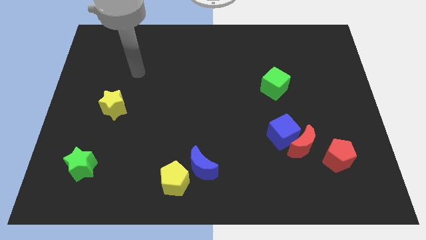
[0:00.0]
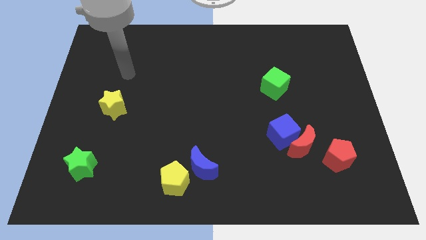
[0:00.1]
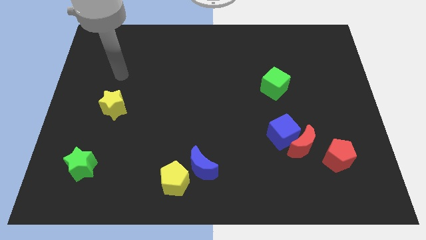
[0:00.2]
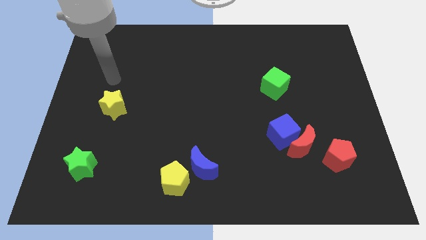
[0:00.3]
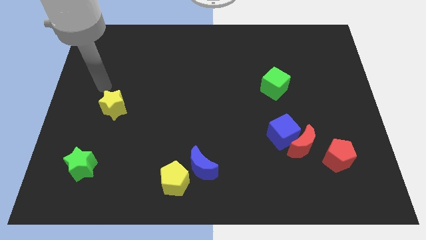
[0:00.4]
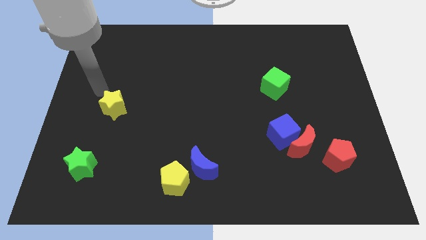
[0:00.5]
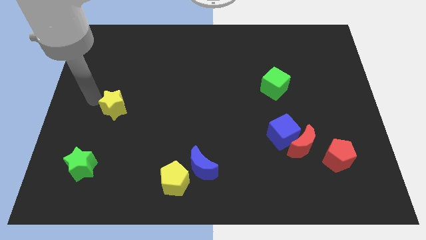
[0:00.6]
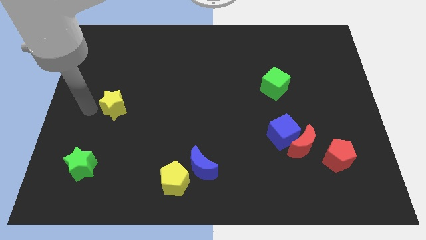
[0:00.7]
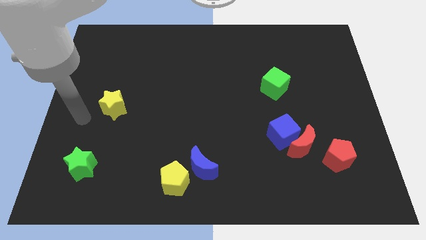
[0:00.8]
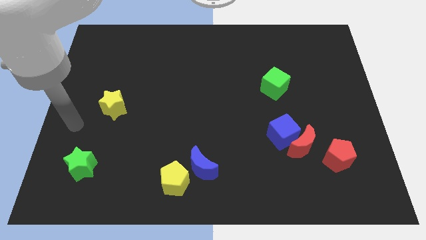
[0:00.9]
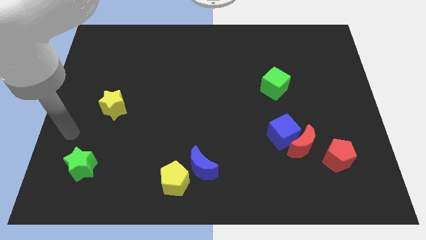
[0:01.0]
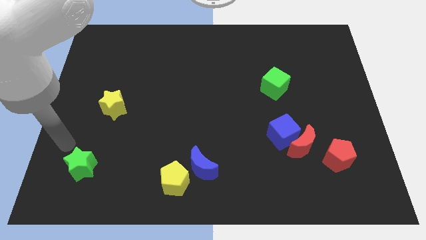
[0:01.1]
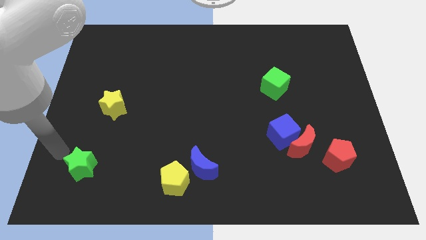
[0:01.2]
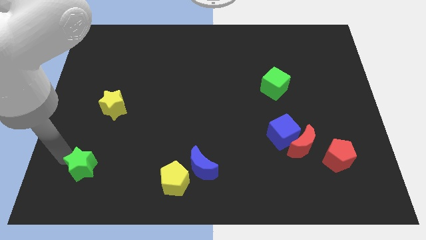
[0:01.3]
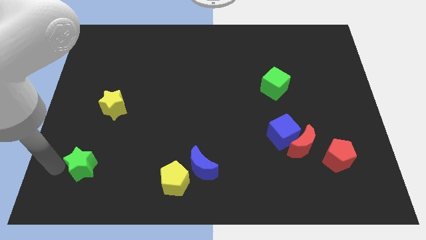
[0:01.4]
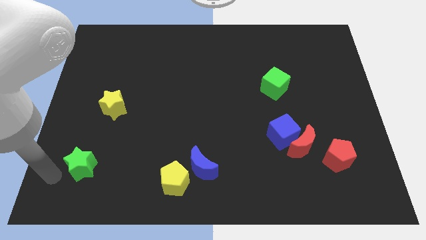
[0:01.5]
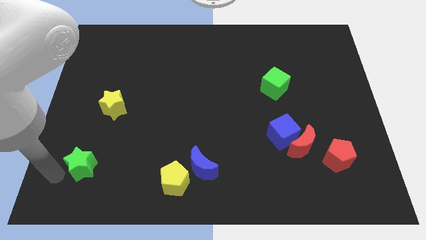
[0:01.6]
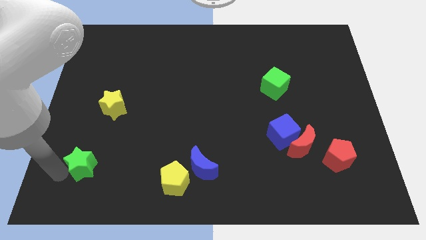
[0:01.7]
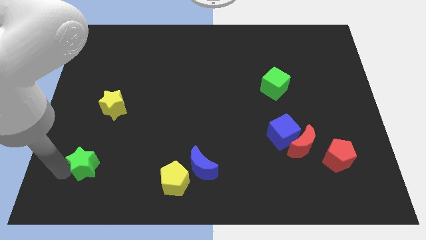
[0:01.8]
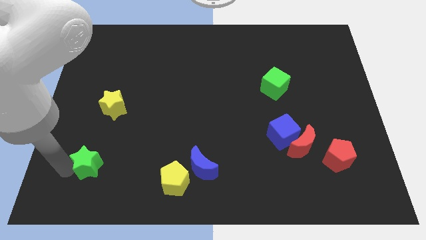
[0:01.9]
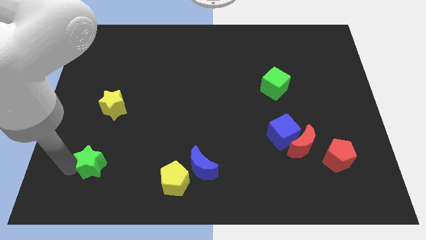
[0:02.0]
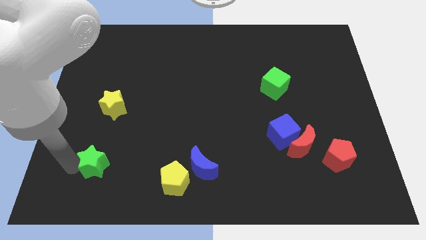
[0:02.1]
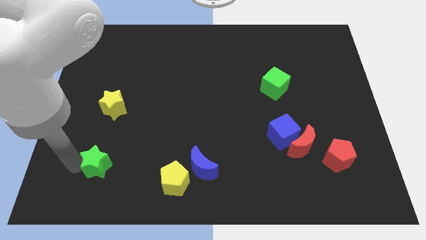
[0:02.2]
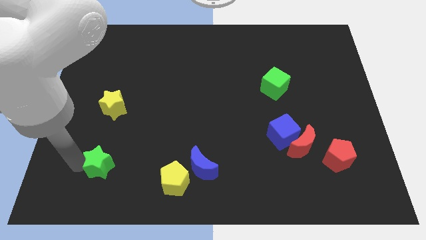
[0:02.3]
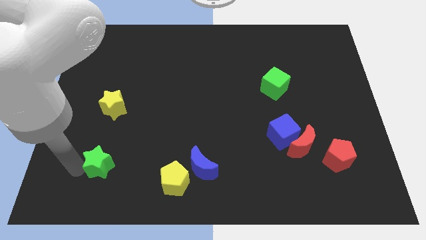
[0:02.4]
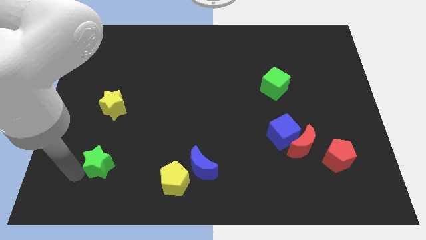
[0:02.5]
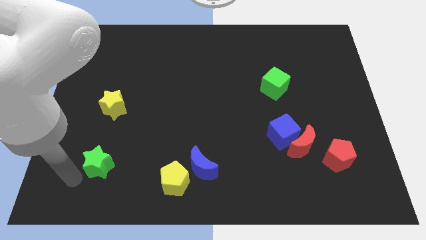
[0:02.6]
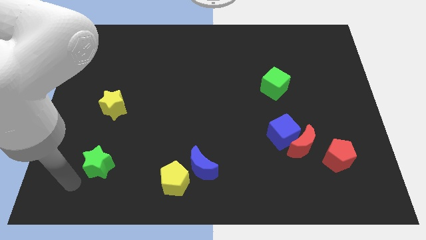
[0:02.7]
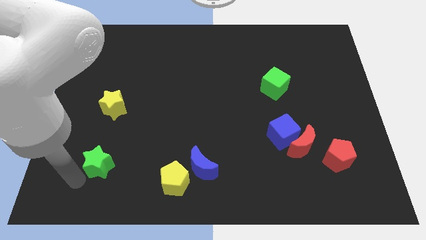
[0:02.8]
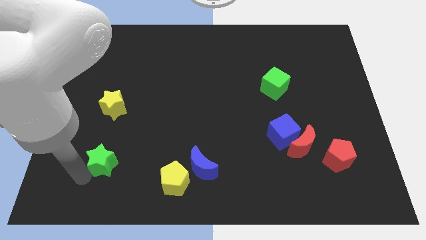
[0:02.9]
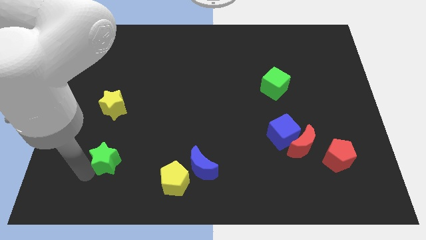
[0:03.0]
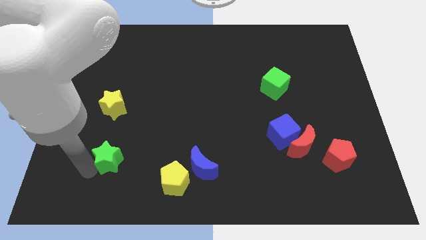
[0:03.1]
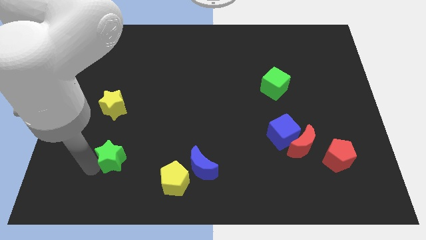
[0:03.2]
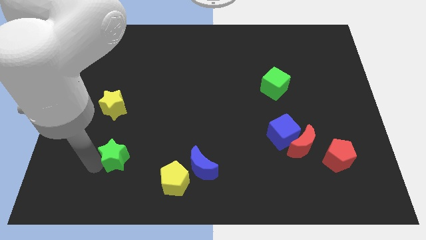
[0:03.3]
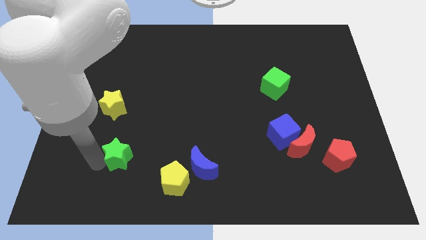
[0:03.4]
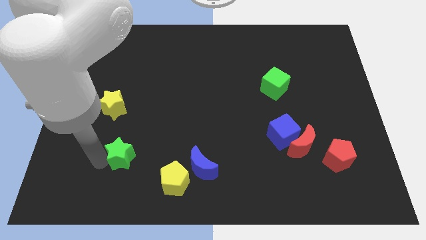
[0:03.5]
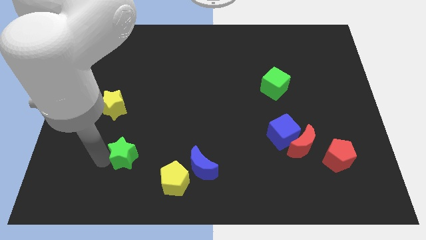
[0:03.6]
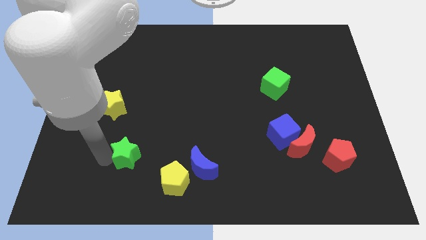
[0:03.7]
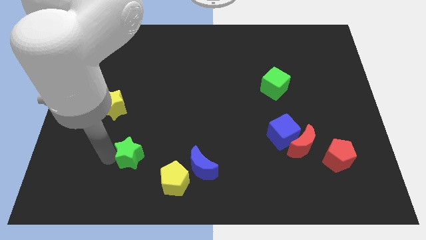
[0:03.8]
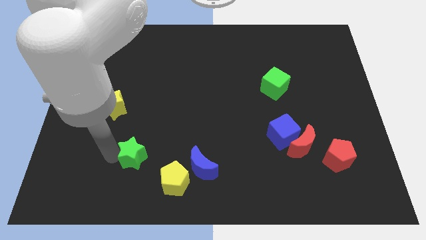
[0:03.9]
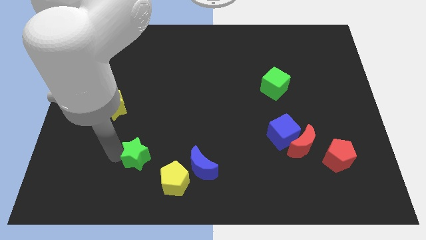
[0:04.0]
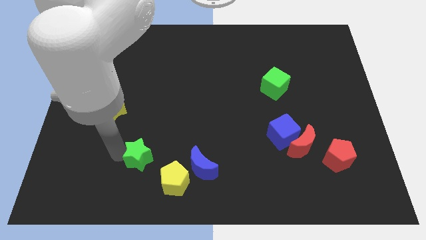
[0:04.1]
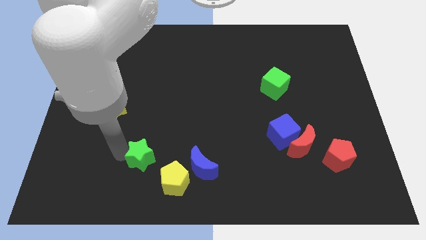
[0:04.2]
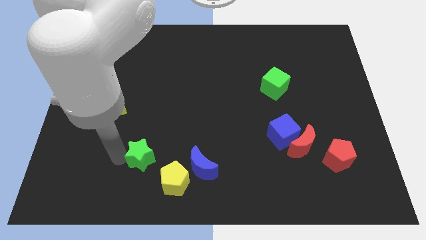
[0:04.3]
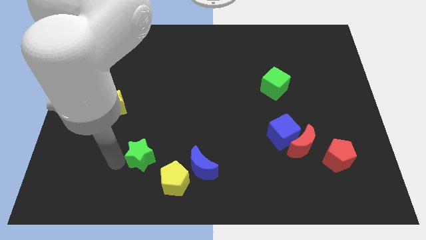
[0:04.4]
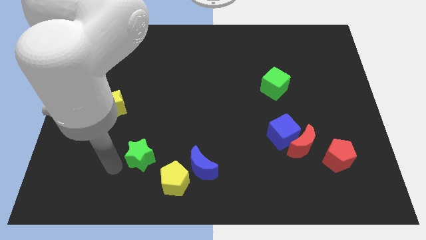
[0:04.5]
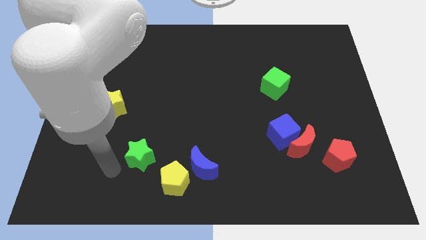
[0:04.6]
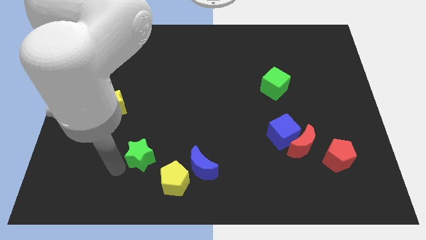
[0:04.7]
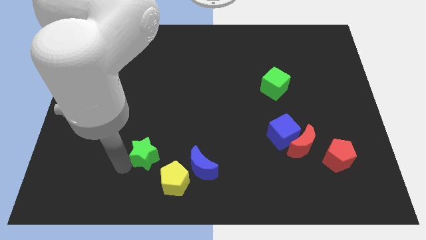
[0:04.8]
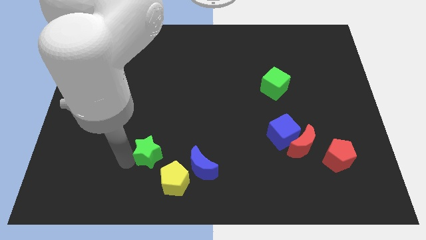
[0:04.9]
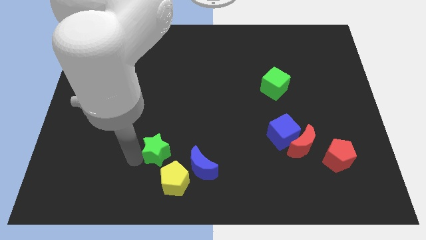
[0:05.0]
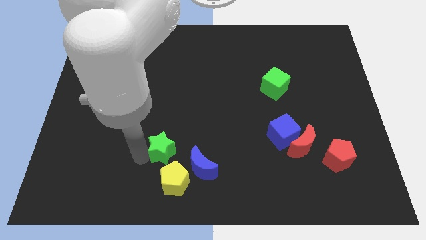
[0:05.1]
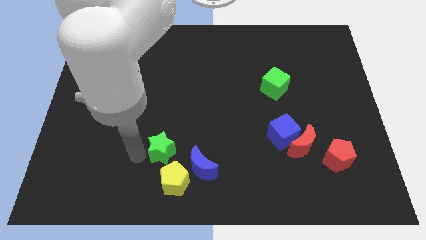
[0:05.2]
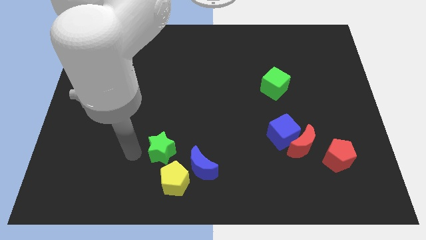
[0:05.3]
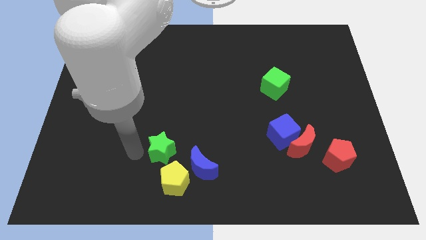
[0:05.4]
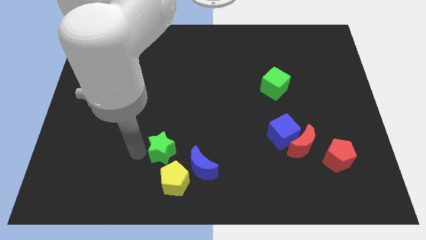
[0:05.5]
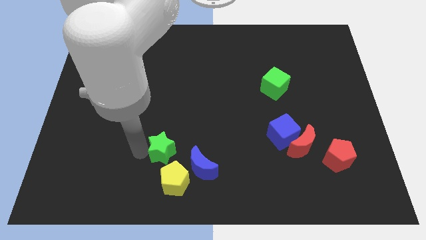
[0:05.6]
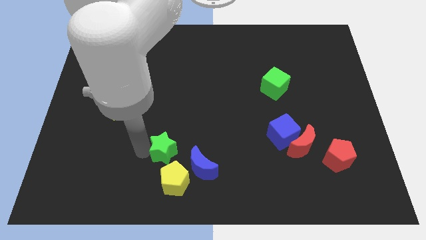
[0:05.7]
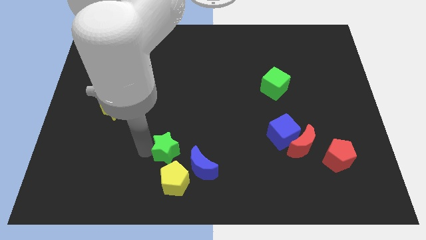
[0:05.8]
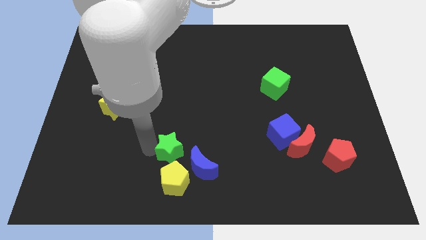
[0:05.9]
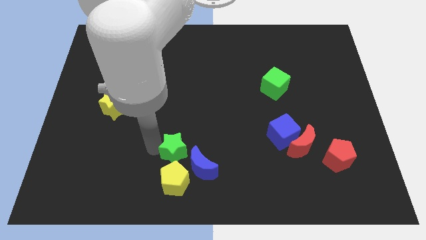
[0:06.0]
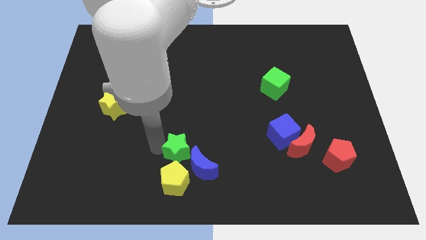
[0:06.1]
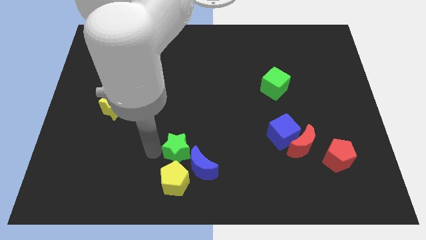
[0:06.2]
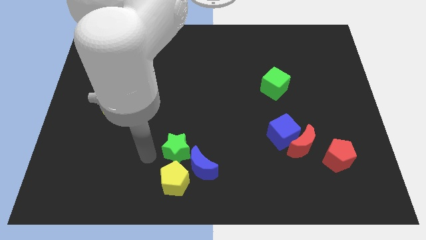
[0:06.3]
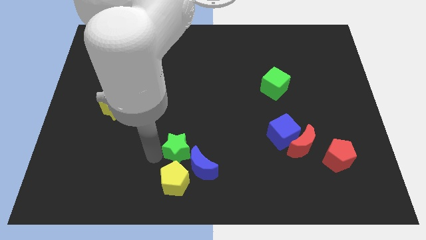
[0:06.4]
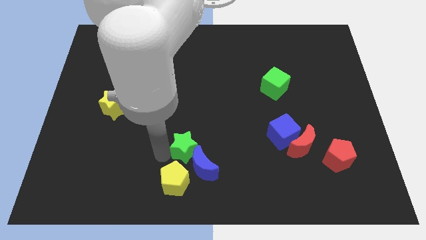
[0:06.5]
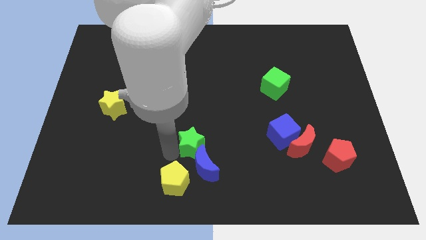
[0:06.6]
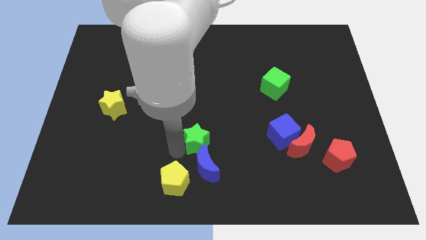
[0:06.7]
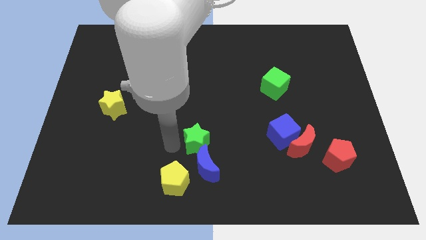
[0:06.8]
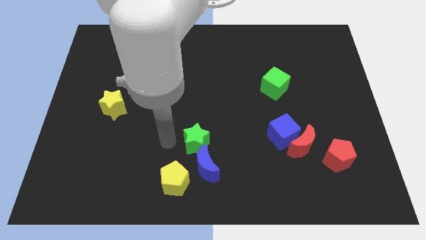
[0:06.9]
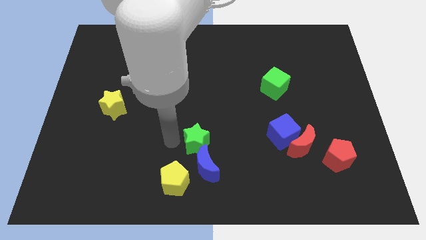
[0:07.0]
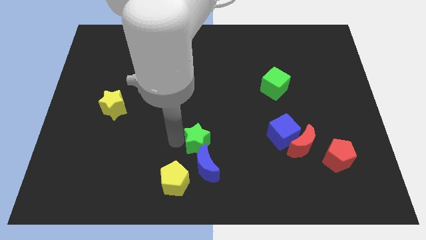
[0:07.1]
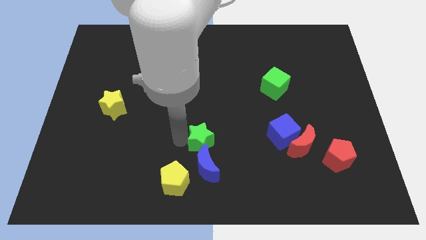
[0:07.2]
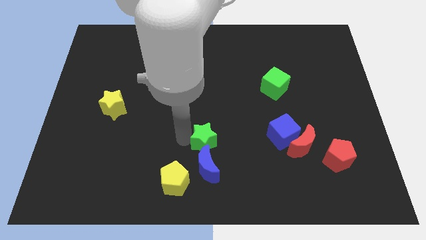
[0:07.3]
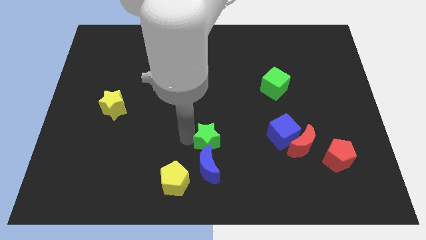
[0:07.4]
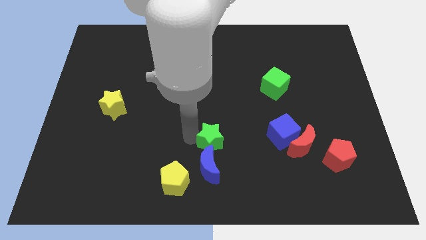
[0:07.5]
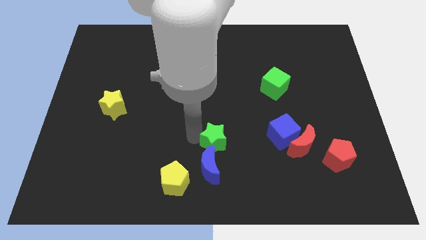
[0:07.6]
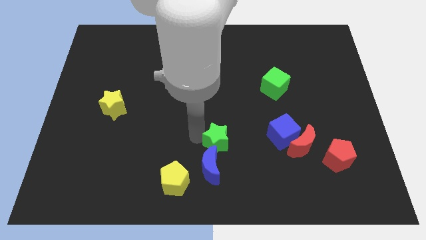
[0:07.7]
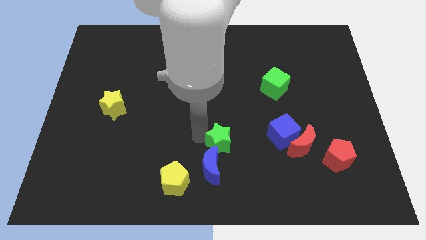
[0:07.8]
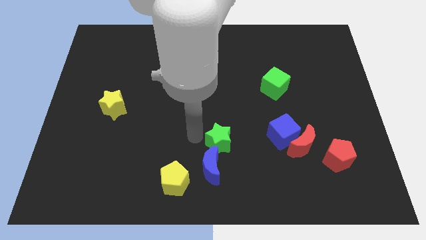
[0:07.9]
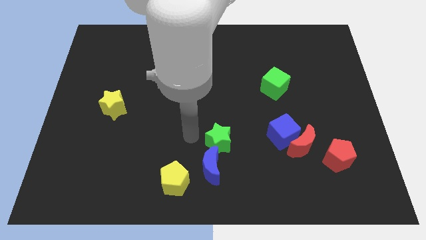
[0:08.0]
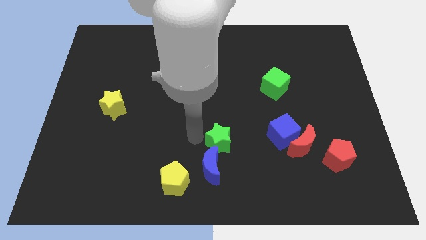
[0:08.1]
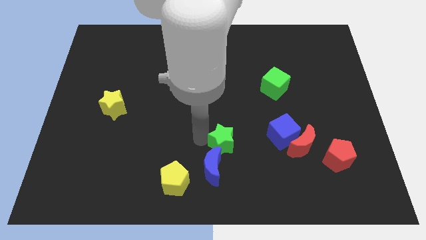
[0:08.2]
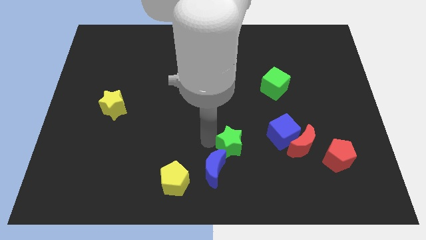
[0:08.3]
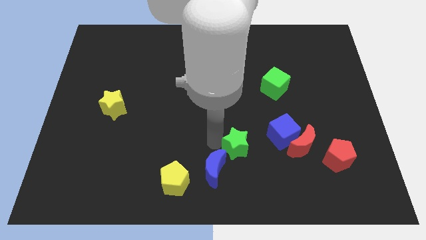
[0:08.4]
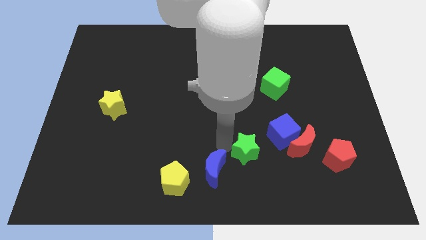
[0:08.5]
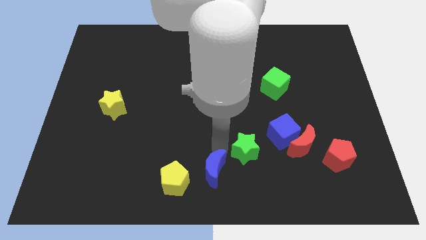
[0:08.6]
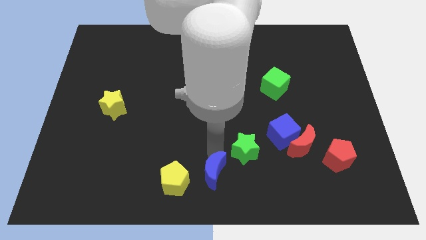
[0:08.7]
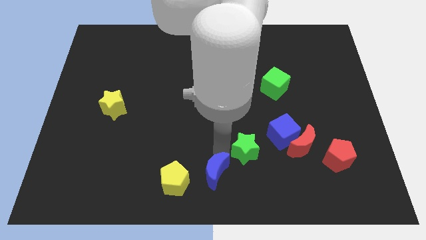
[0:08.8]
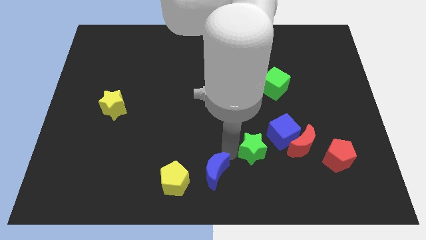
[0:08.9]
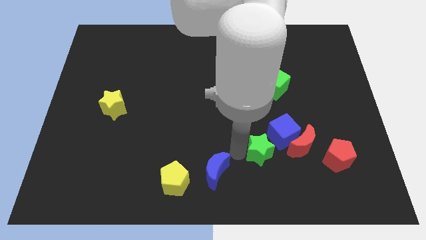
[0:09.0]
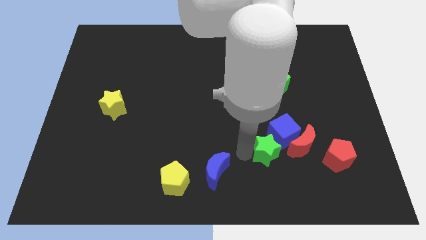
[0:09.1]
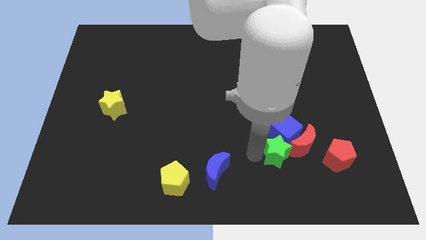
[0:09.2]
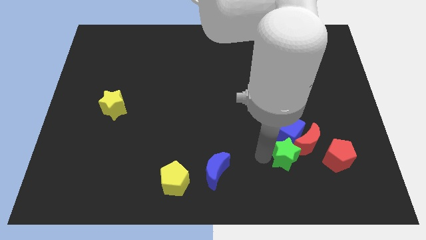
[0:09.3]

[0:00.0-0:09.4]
slide the green star next to the red moon
